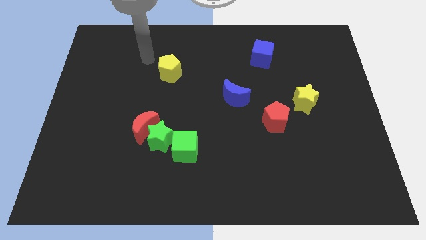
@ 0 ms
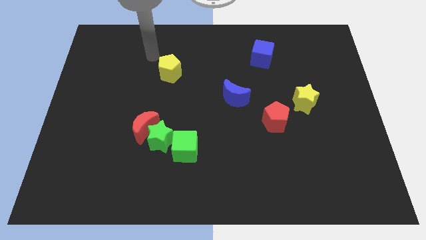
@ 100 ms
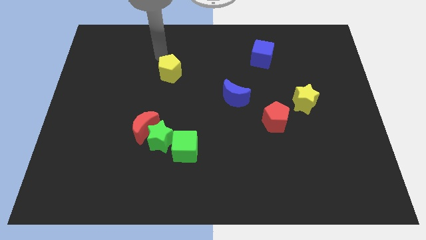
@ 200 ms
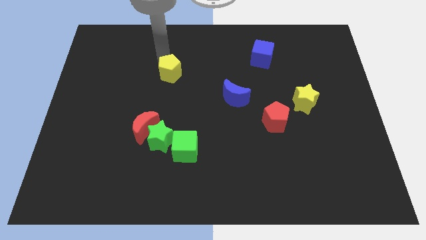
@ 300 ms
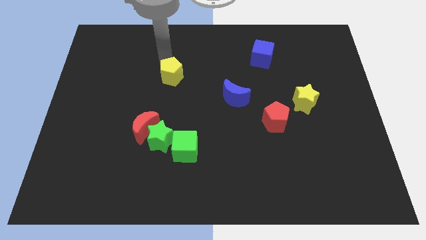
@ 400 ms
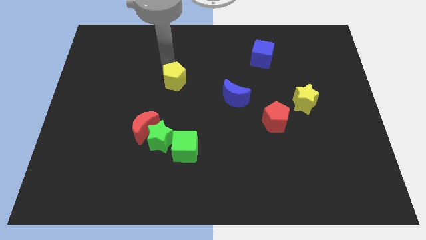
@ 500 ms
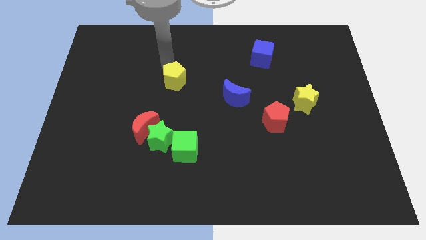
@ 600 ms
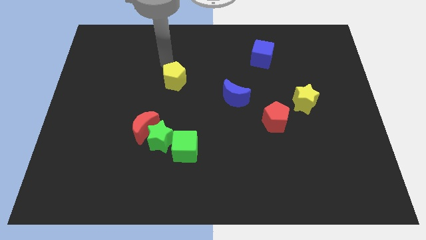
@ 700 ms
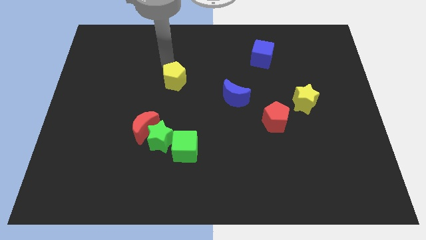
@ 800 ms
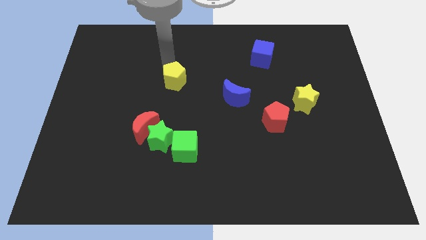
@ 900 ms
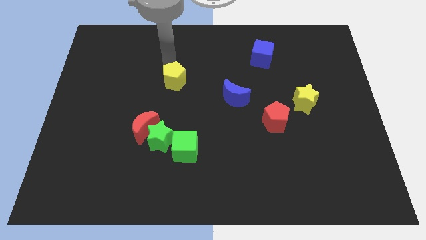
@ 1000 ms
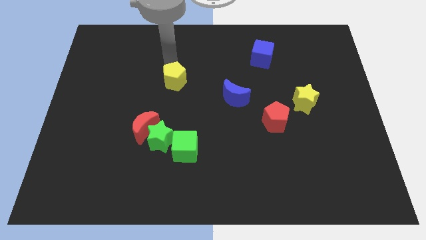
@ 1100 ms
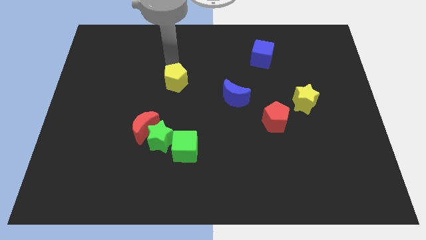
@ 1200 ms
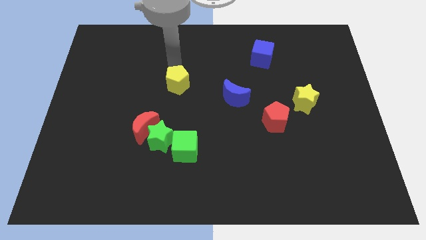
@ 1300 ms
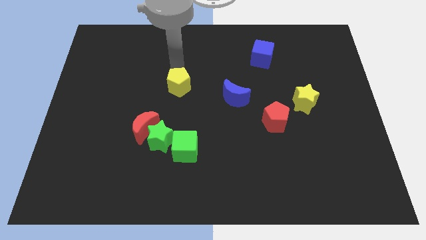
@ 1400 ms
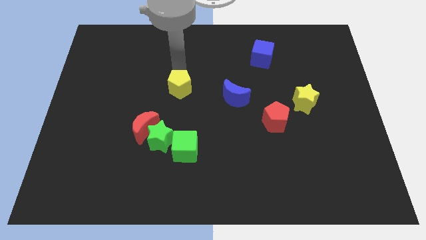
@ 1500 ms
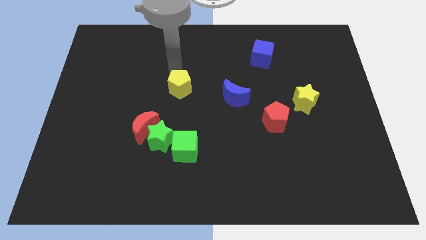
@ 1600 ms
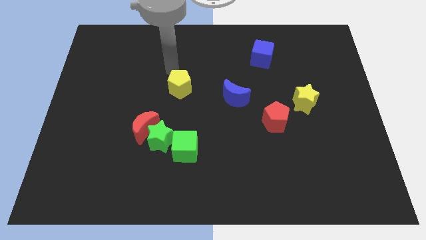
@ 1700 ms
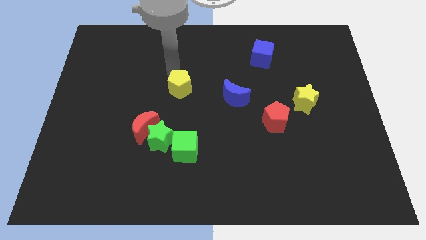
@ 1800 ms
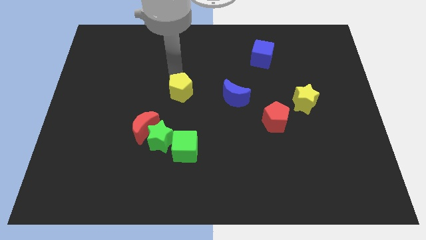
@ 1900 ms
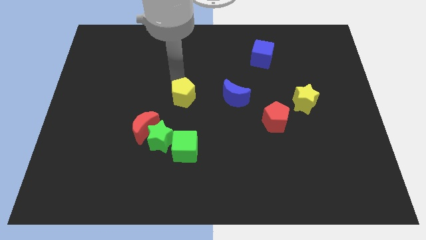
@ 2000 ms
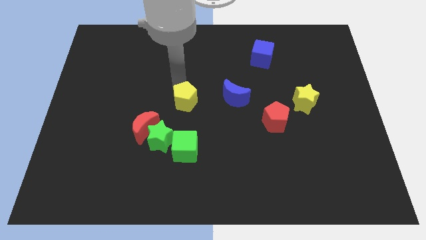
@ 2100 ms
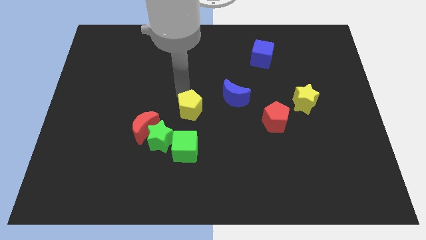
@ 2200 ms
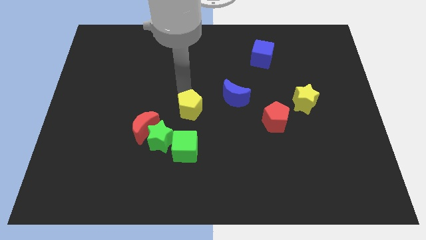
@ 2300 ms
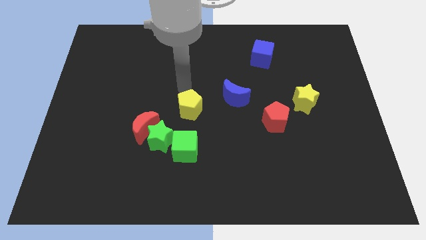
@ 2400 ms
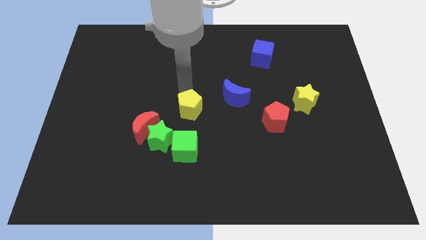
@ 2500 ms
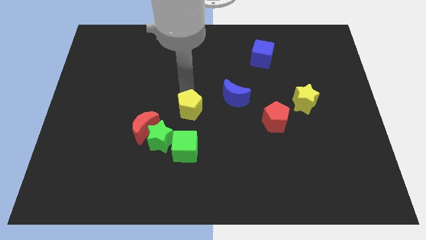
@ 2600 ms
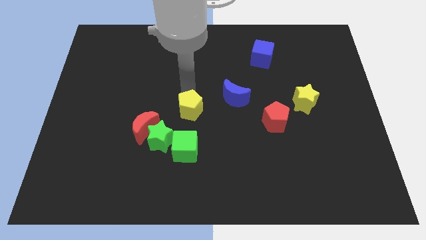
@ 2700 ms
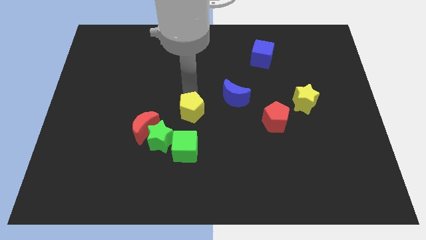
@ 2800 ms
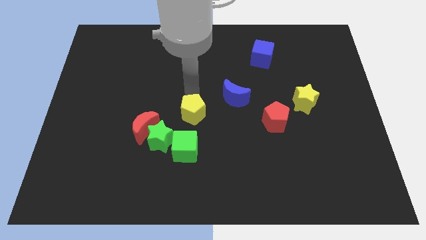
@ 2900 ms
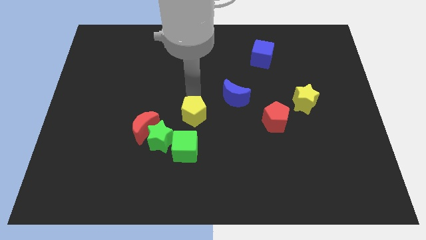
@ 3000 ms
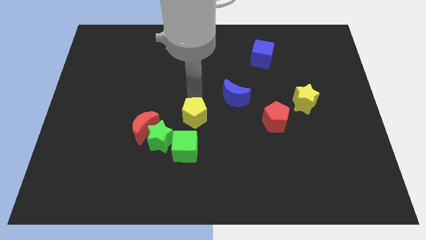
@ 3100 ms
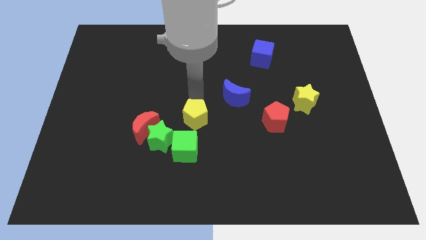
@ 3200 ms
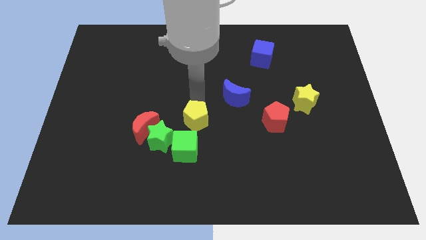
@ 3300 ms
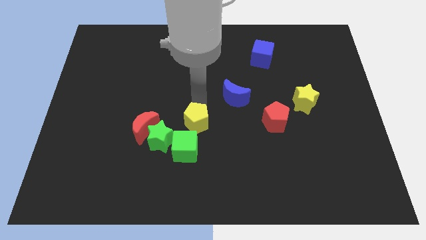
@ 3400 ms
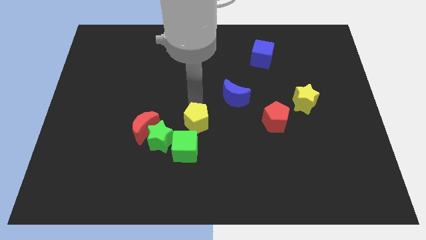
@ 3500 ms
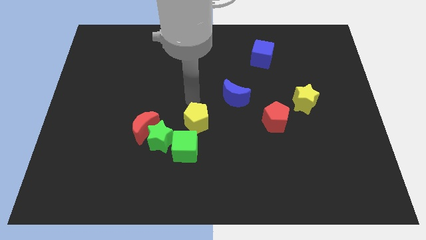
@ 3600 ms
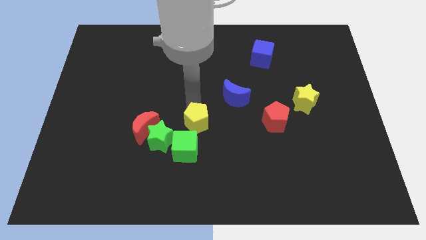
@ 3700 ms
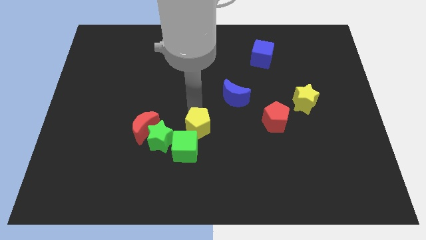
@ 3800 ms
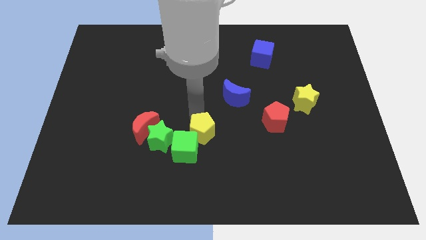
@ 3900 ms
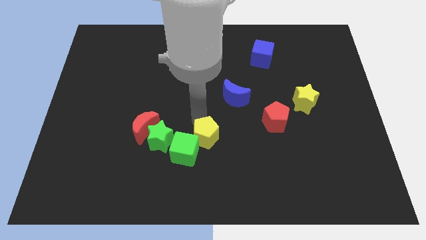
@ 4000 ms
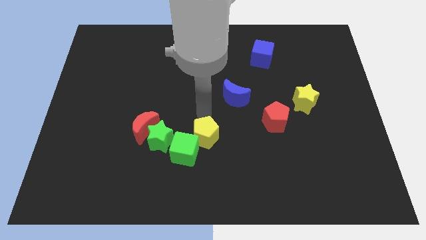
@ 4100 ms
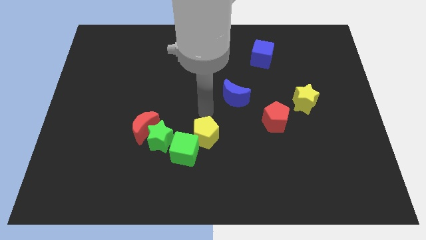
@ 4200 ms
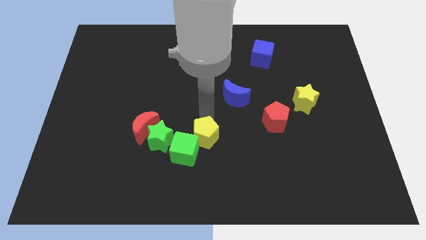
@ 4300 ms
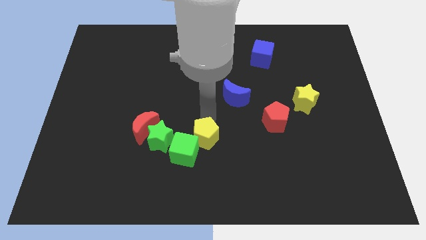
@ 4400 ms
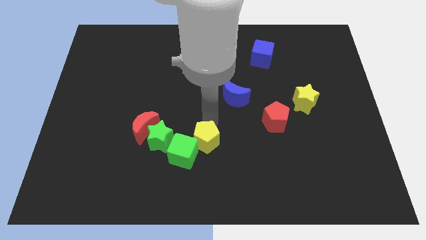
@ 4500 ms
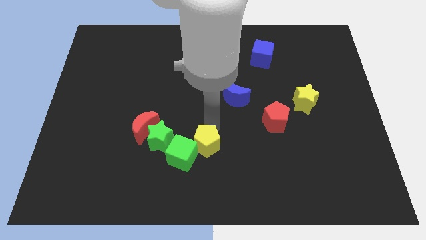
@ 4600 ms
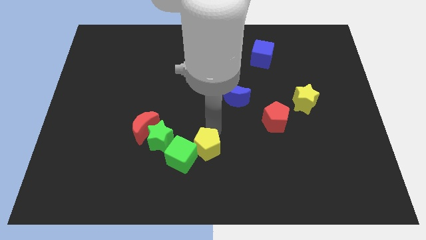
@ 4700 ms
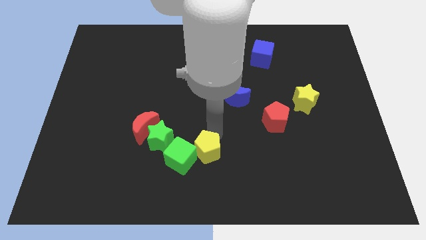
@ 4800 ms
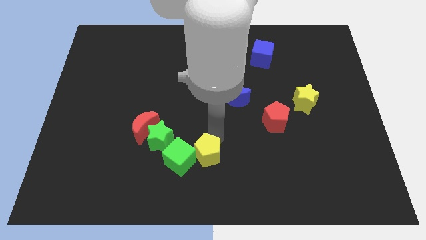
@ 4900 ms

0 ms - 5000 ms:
put the yellow pentagon to the bottom

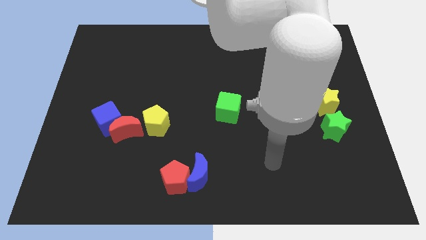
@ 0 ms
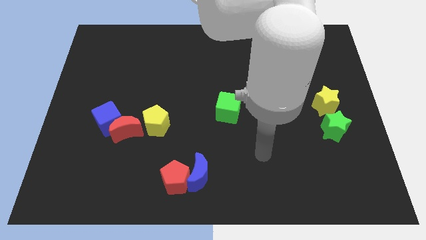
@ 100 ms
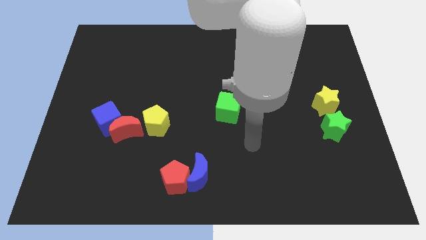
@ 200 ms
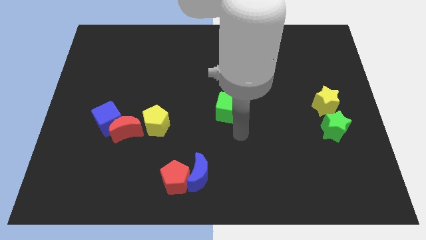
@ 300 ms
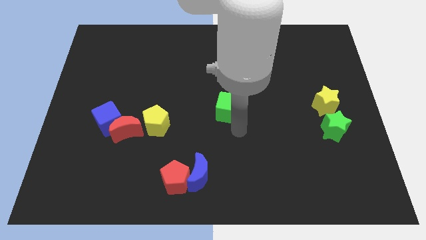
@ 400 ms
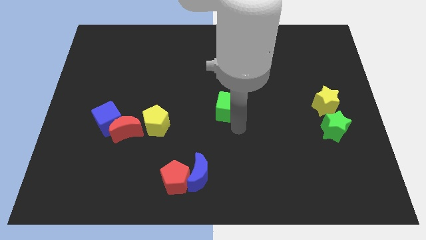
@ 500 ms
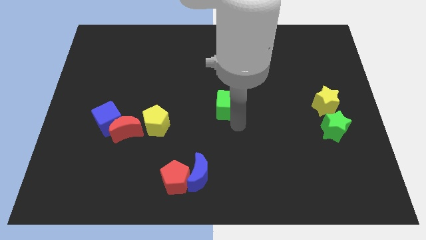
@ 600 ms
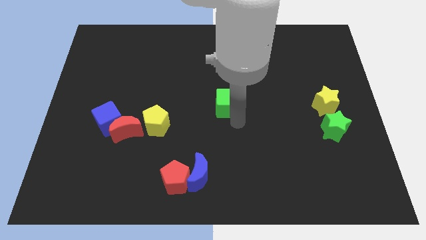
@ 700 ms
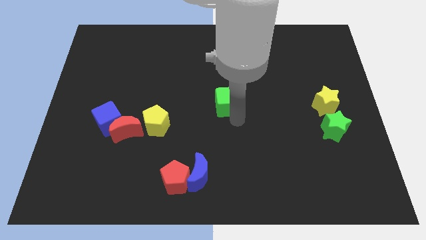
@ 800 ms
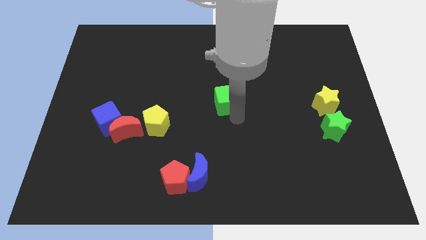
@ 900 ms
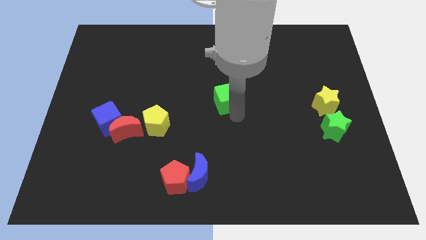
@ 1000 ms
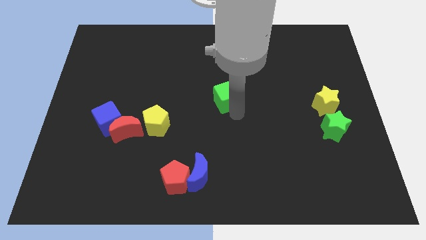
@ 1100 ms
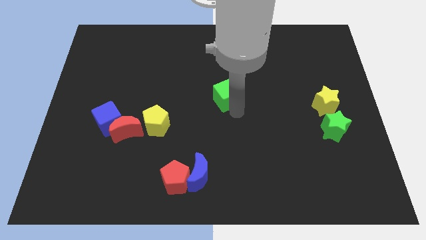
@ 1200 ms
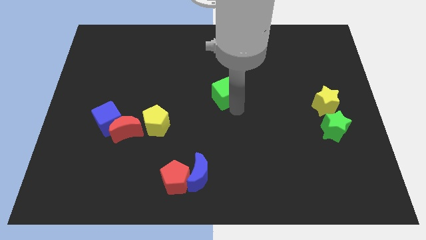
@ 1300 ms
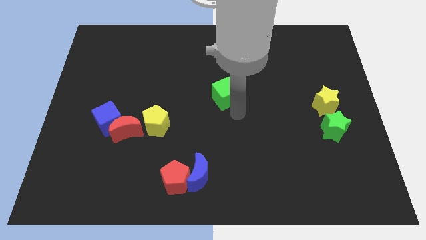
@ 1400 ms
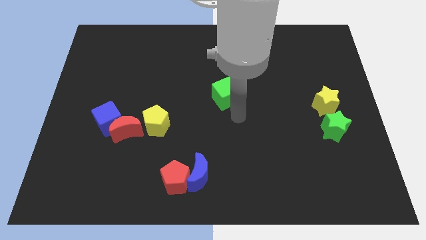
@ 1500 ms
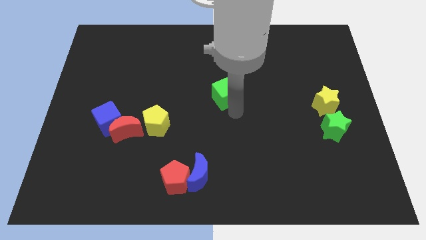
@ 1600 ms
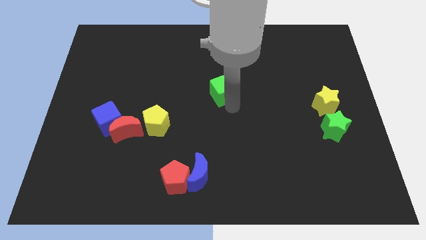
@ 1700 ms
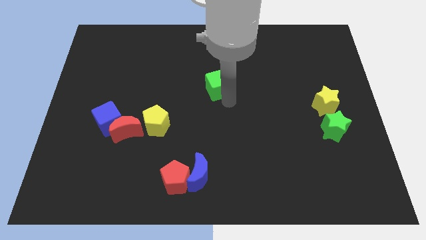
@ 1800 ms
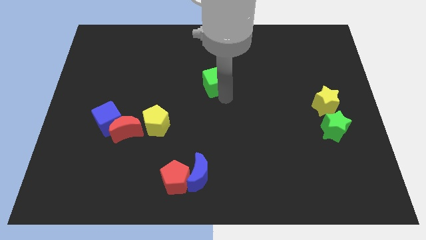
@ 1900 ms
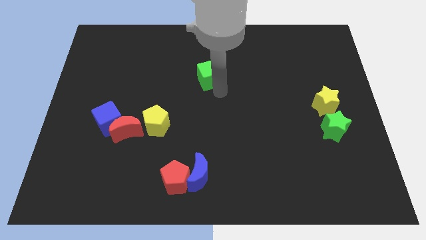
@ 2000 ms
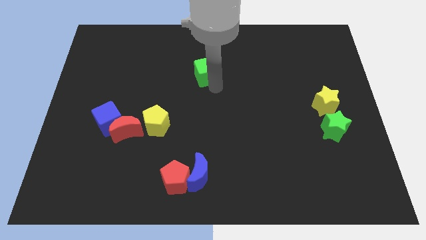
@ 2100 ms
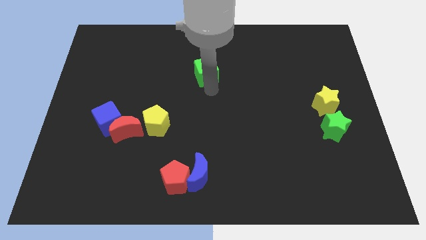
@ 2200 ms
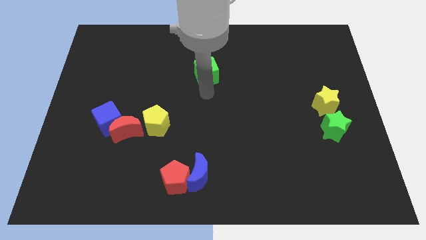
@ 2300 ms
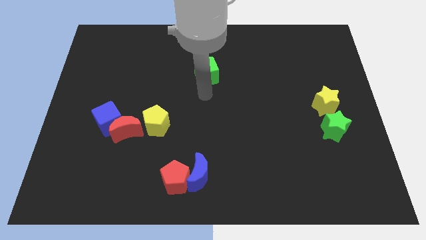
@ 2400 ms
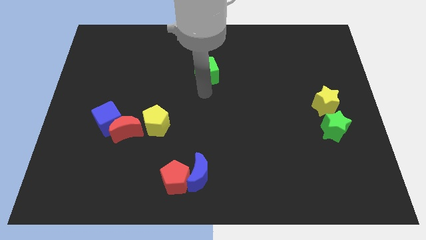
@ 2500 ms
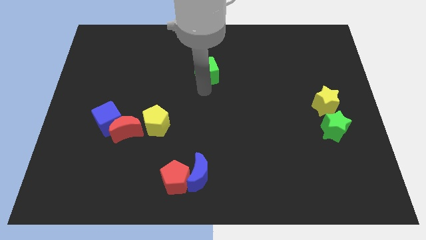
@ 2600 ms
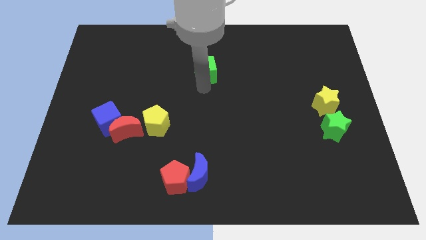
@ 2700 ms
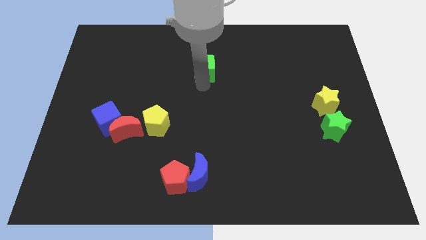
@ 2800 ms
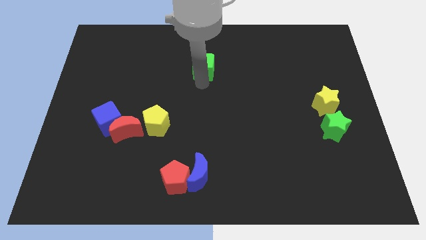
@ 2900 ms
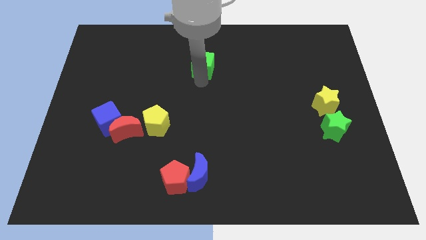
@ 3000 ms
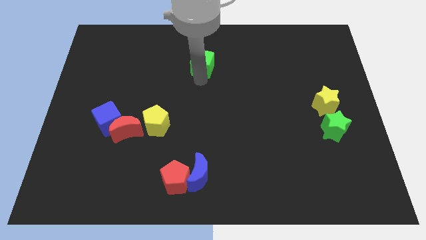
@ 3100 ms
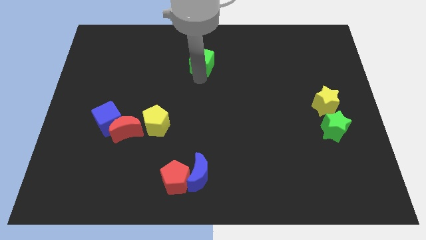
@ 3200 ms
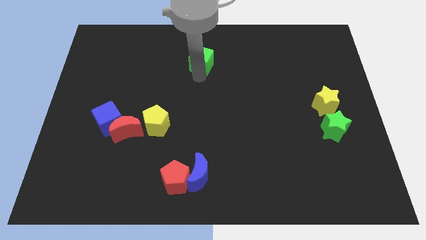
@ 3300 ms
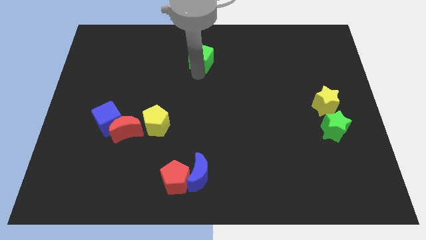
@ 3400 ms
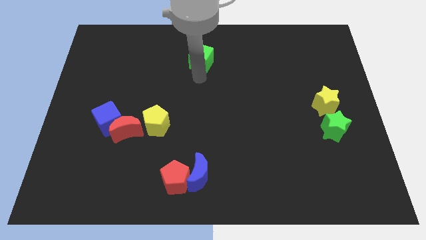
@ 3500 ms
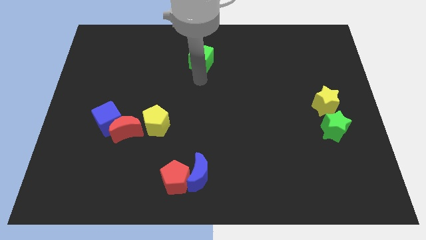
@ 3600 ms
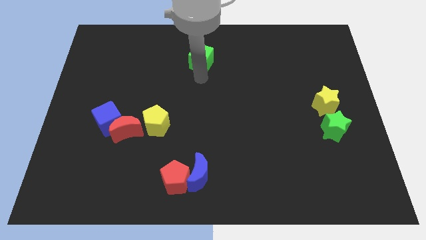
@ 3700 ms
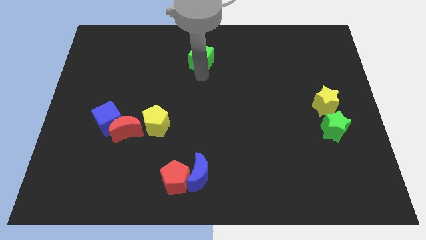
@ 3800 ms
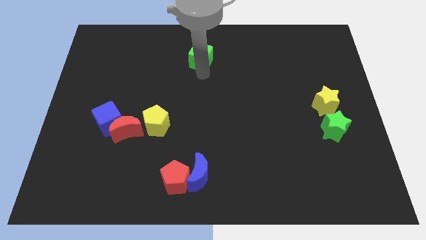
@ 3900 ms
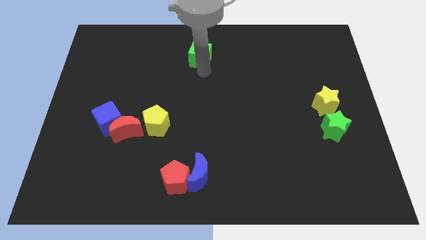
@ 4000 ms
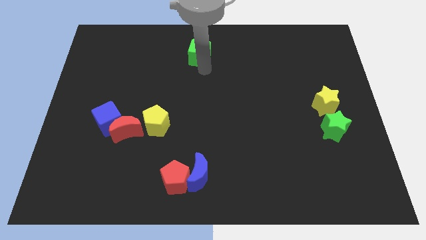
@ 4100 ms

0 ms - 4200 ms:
push the green cube to the top side
